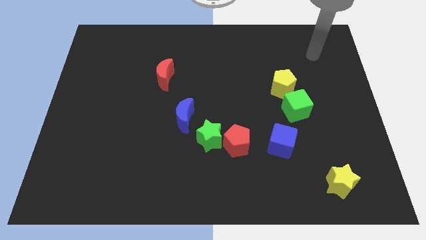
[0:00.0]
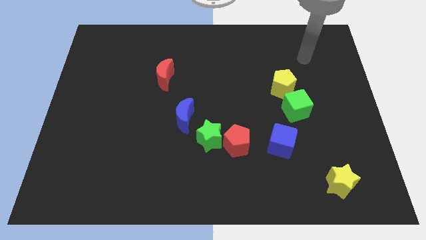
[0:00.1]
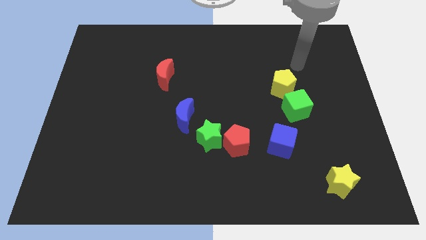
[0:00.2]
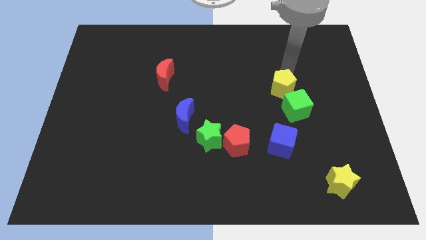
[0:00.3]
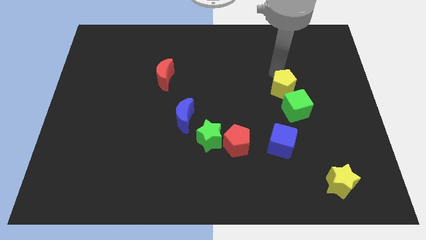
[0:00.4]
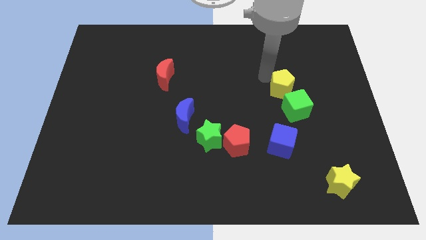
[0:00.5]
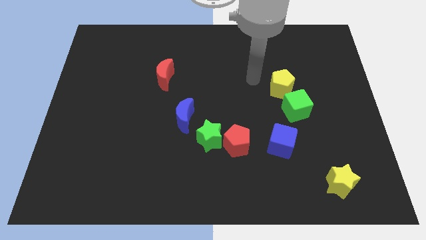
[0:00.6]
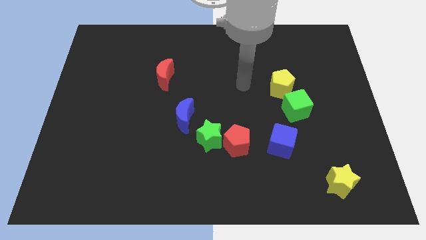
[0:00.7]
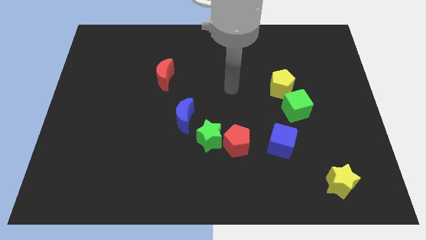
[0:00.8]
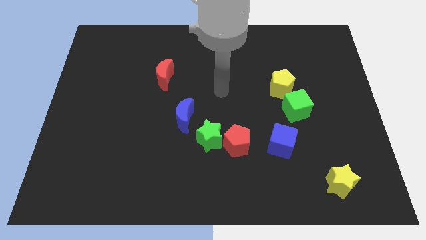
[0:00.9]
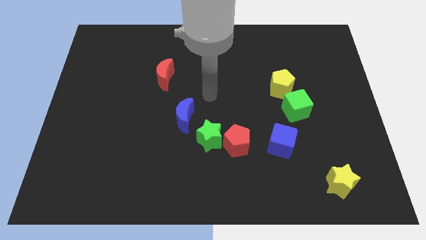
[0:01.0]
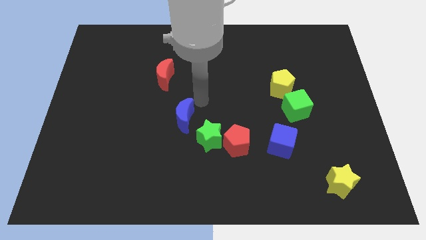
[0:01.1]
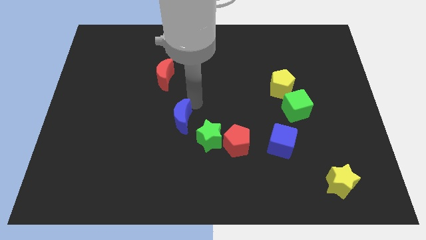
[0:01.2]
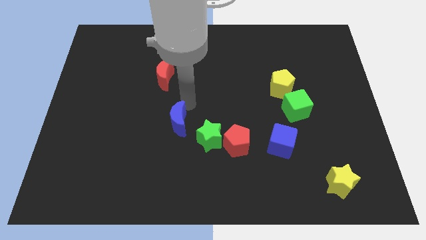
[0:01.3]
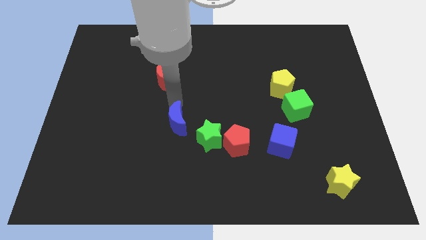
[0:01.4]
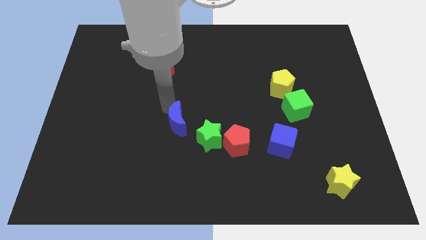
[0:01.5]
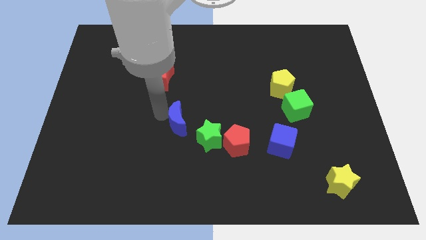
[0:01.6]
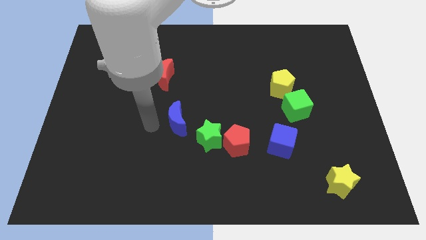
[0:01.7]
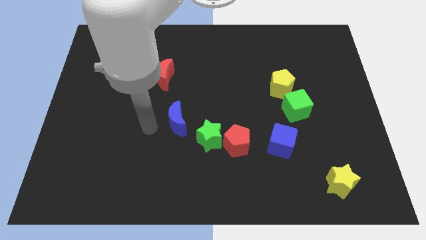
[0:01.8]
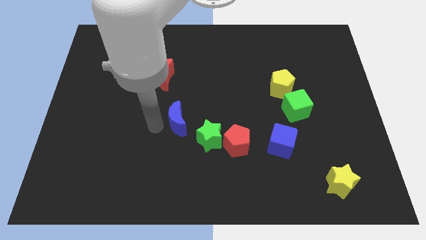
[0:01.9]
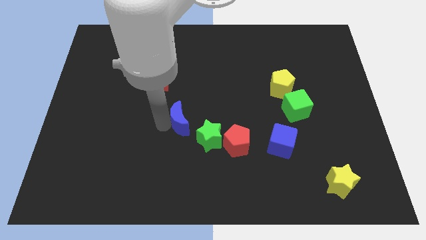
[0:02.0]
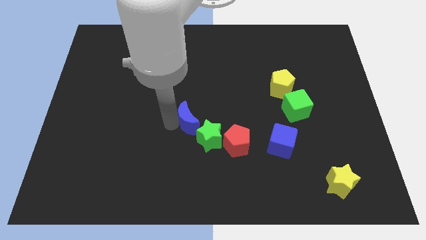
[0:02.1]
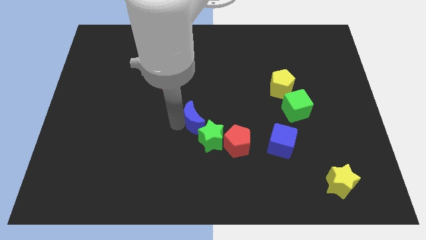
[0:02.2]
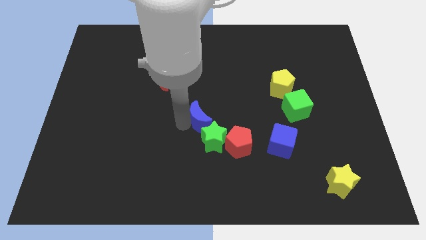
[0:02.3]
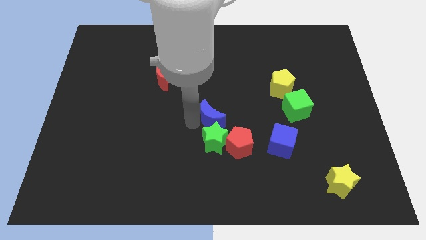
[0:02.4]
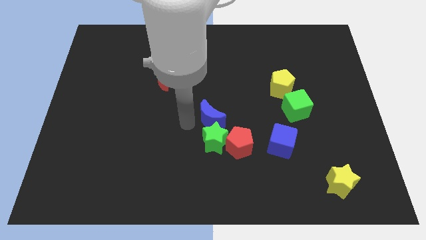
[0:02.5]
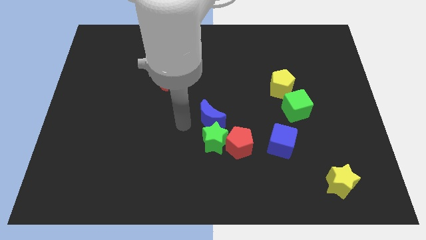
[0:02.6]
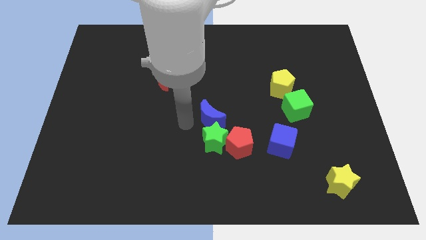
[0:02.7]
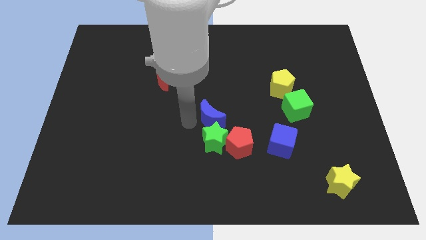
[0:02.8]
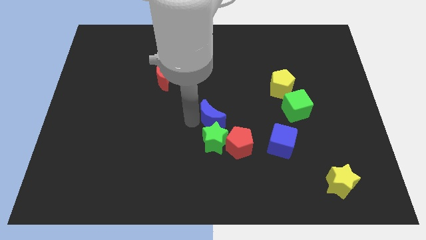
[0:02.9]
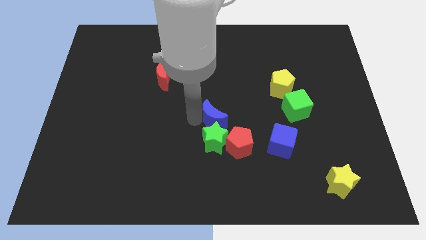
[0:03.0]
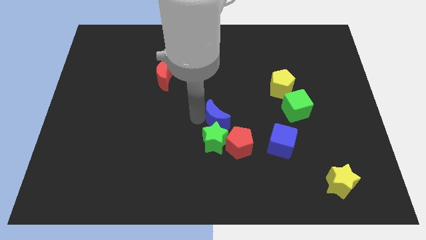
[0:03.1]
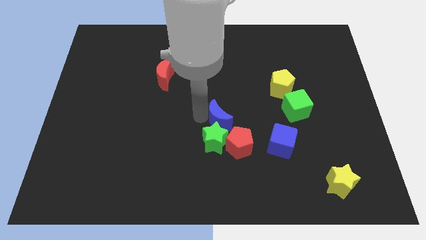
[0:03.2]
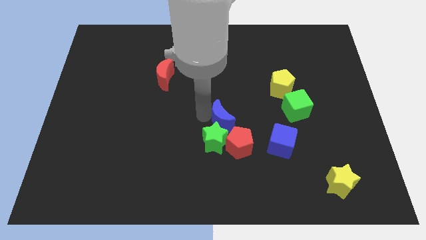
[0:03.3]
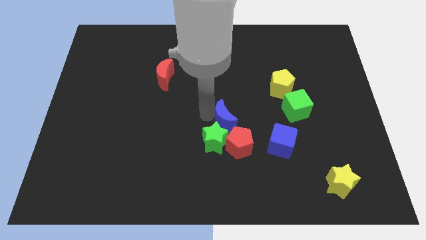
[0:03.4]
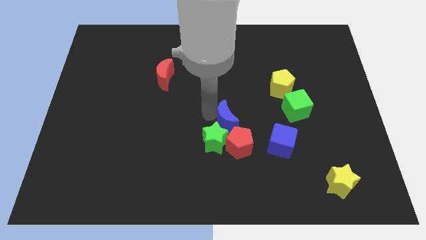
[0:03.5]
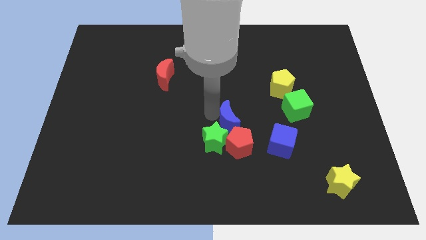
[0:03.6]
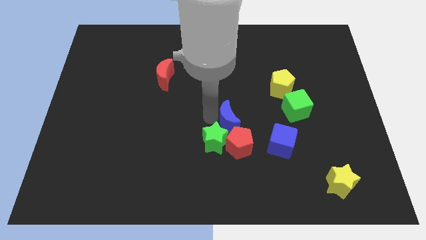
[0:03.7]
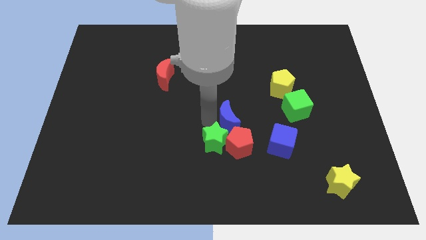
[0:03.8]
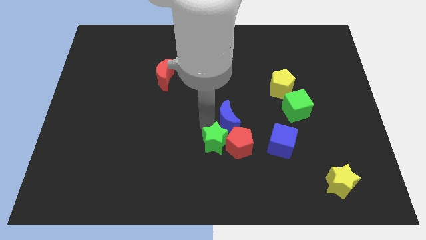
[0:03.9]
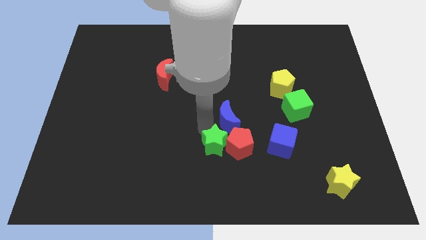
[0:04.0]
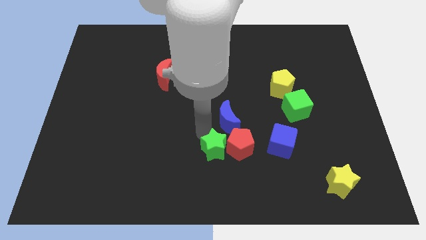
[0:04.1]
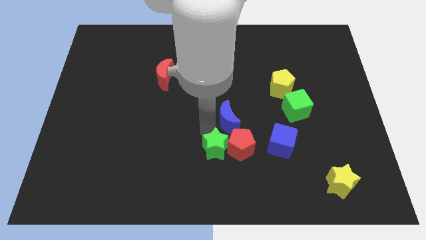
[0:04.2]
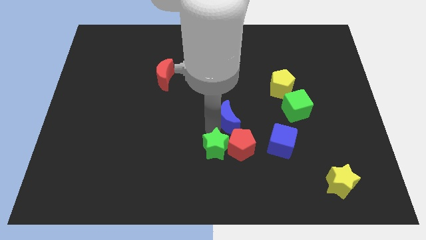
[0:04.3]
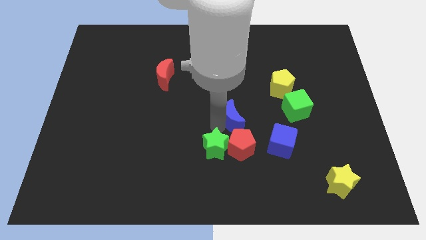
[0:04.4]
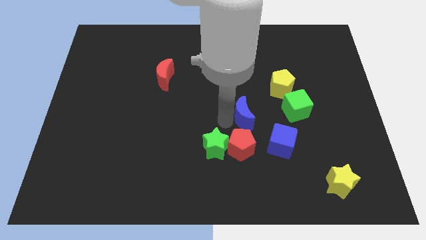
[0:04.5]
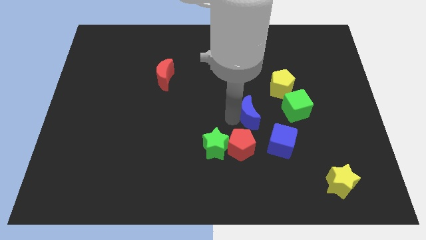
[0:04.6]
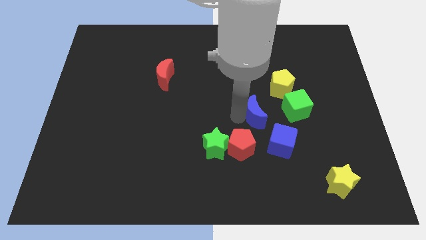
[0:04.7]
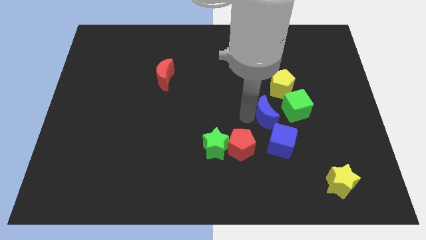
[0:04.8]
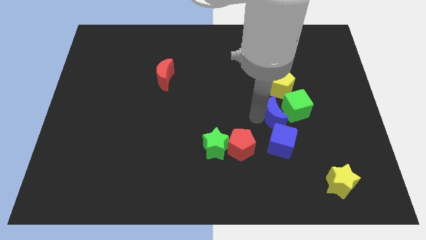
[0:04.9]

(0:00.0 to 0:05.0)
push the blue moon towards the green cube

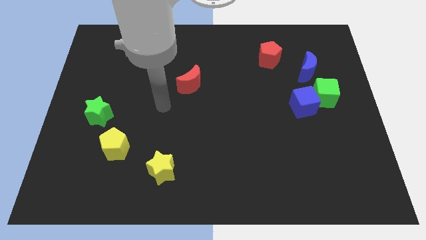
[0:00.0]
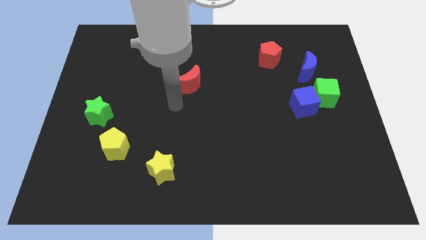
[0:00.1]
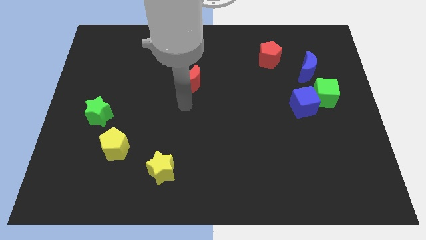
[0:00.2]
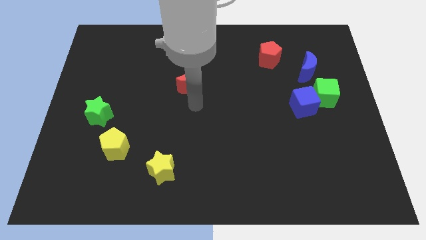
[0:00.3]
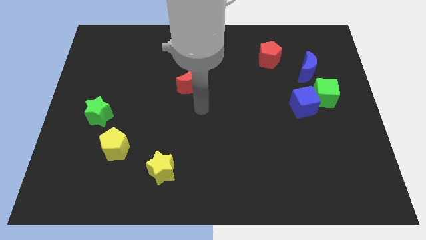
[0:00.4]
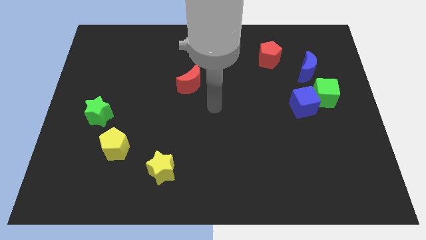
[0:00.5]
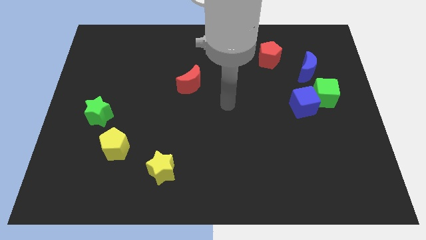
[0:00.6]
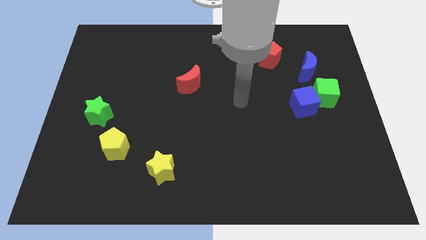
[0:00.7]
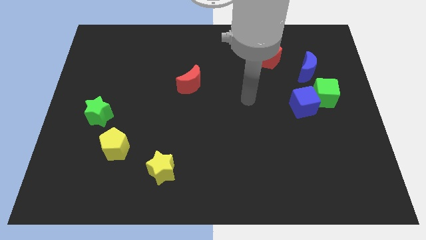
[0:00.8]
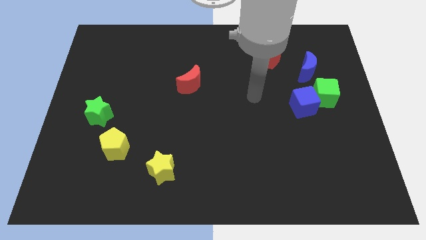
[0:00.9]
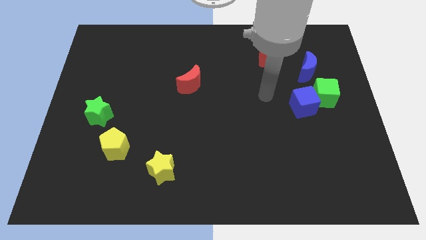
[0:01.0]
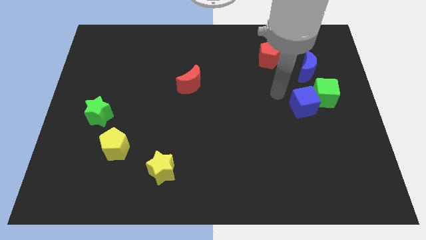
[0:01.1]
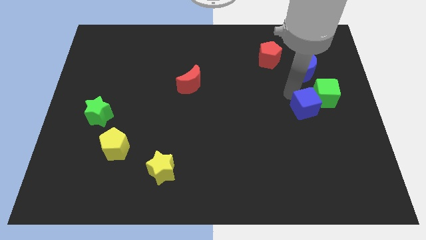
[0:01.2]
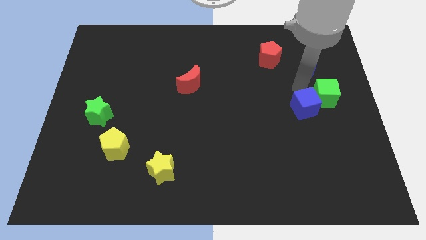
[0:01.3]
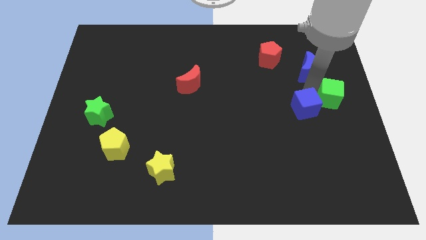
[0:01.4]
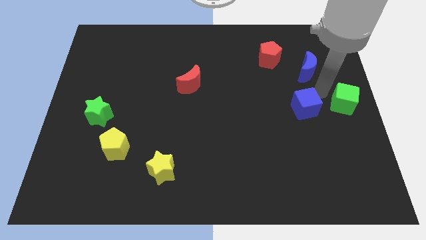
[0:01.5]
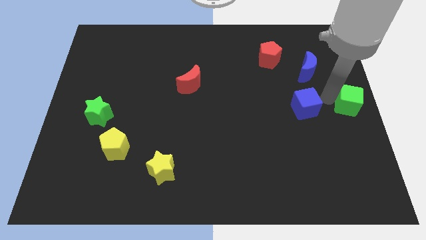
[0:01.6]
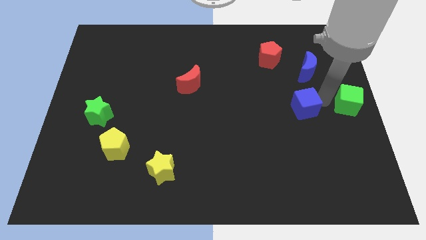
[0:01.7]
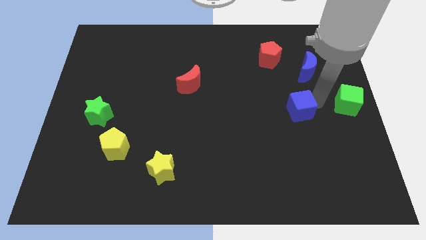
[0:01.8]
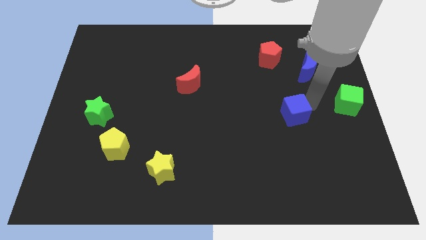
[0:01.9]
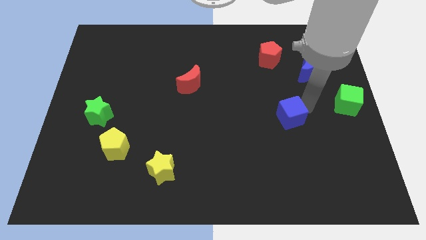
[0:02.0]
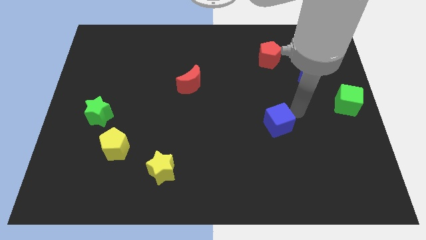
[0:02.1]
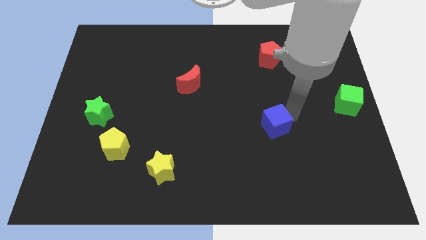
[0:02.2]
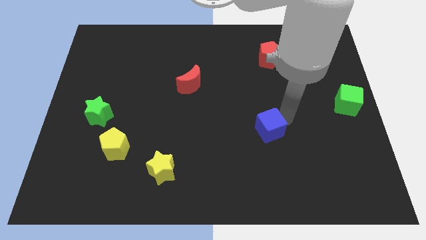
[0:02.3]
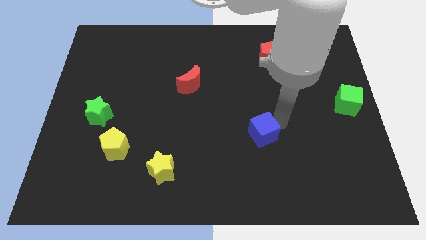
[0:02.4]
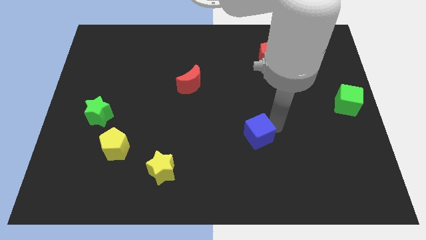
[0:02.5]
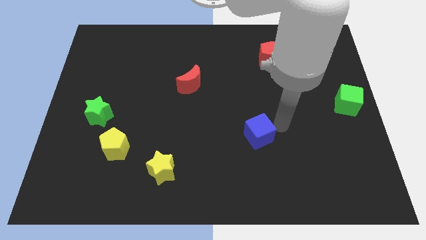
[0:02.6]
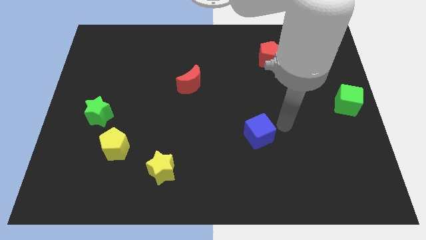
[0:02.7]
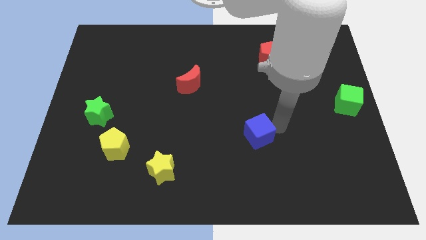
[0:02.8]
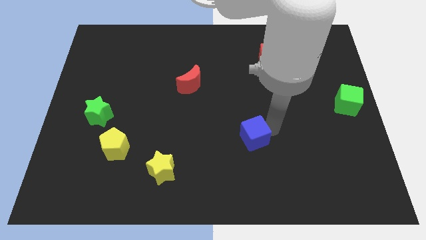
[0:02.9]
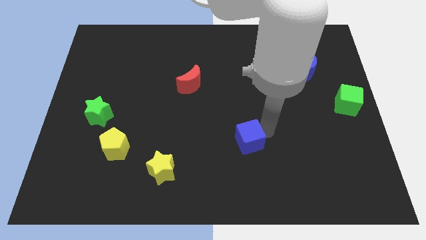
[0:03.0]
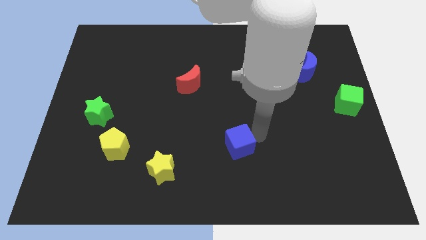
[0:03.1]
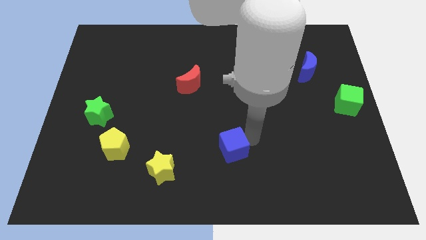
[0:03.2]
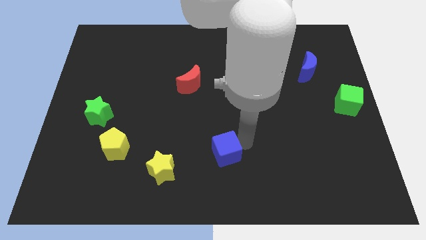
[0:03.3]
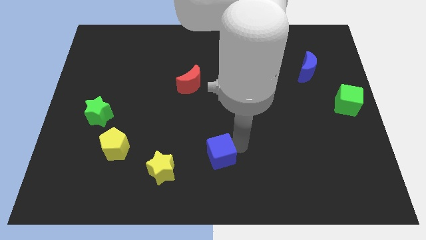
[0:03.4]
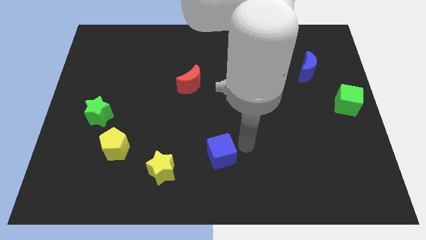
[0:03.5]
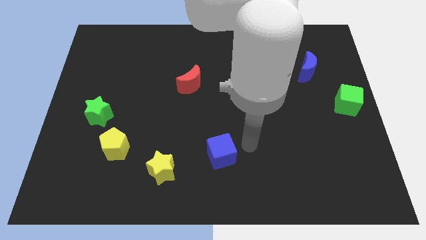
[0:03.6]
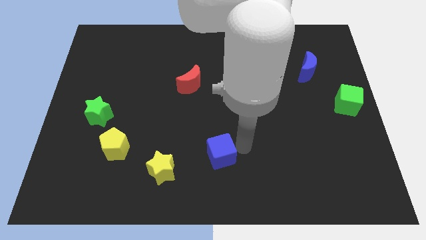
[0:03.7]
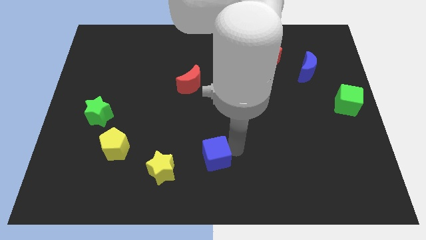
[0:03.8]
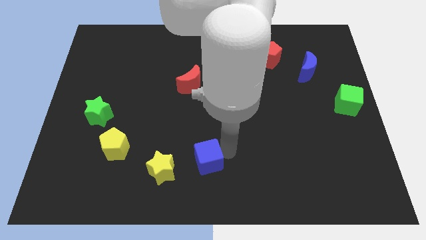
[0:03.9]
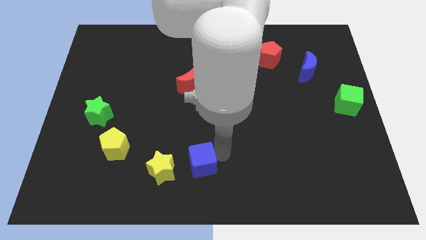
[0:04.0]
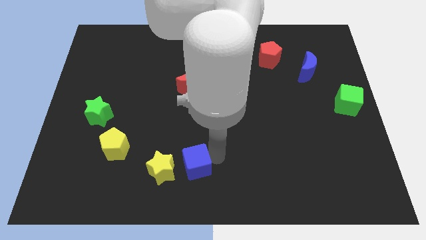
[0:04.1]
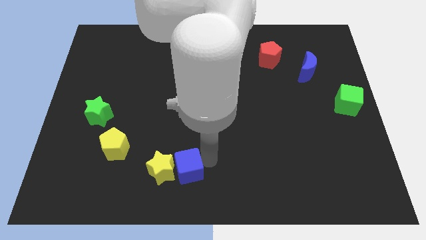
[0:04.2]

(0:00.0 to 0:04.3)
slide the blue cube close to the yellow star
